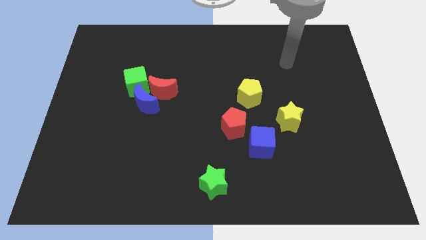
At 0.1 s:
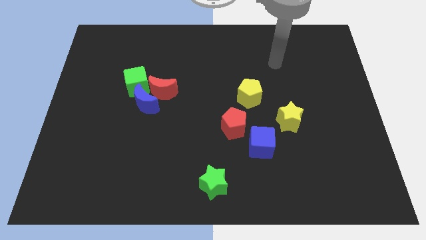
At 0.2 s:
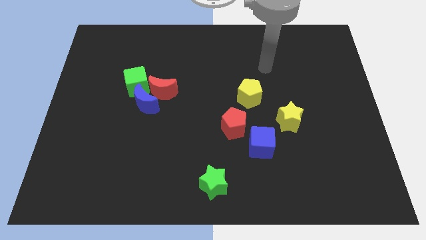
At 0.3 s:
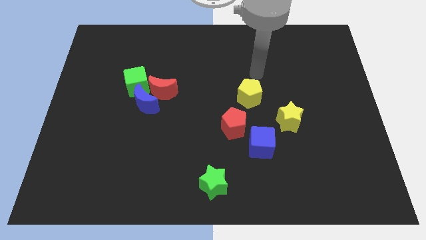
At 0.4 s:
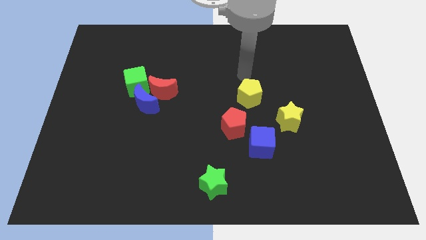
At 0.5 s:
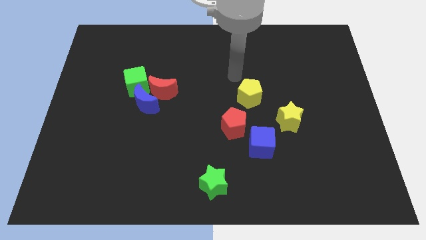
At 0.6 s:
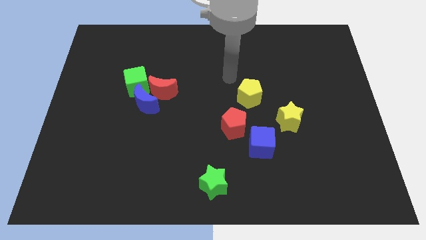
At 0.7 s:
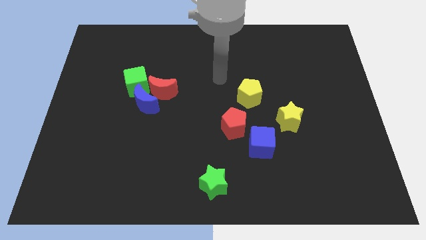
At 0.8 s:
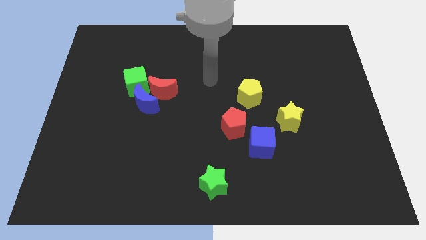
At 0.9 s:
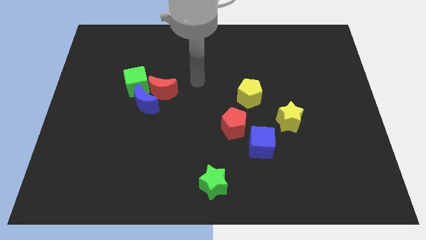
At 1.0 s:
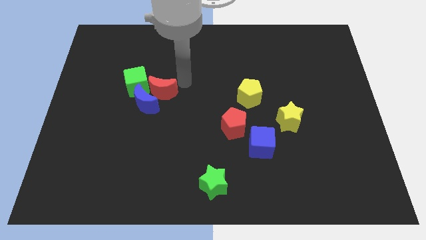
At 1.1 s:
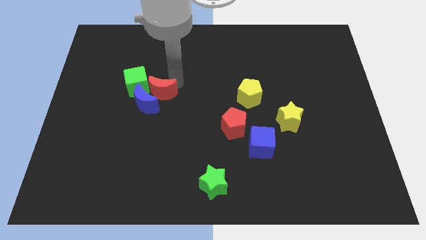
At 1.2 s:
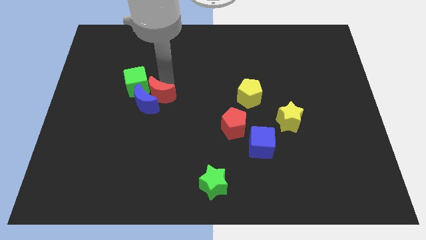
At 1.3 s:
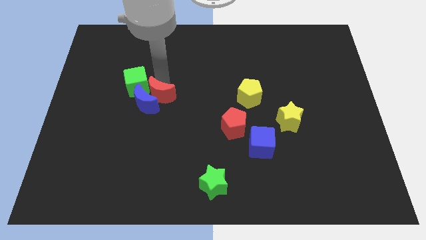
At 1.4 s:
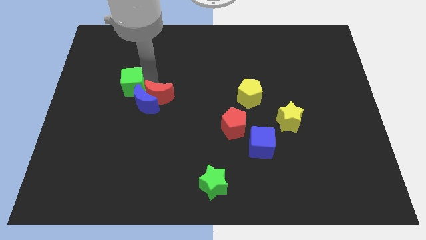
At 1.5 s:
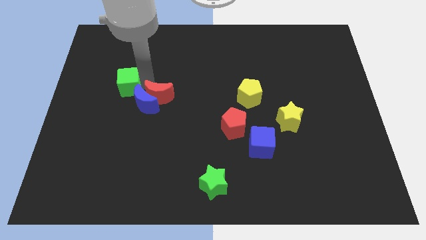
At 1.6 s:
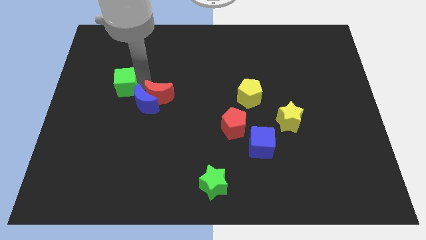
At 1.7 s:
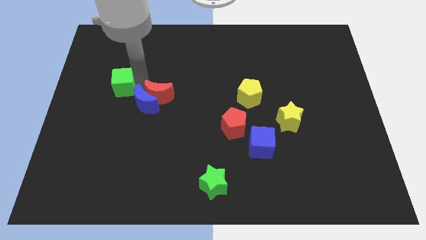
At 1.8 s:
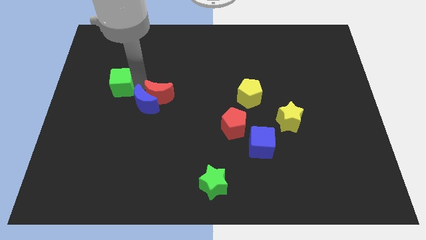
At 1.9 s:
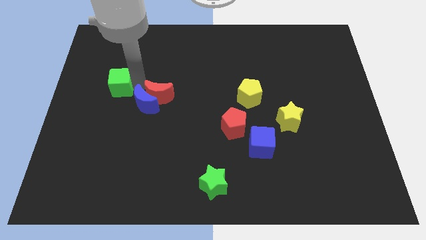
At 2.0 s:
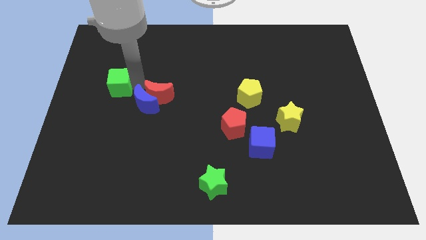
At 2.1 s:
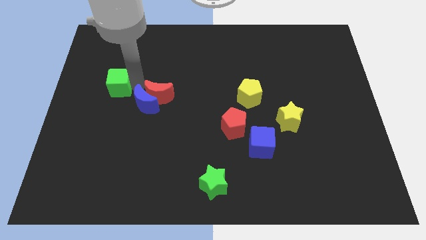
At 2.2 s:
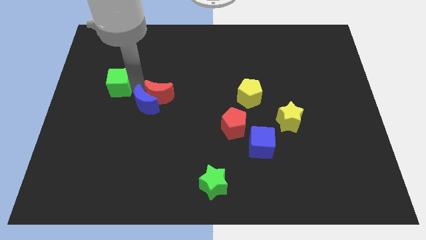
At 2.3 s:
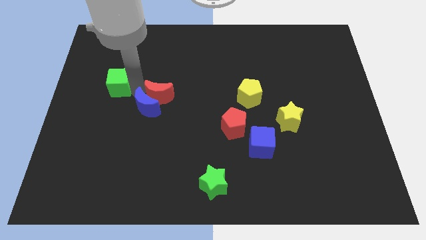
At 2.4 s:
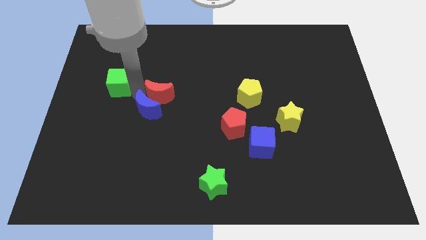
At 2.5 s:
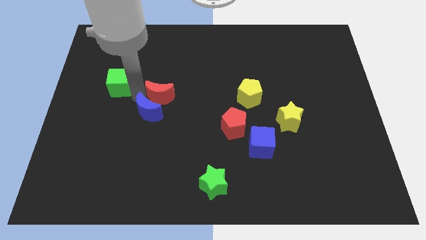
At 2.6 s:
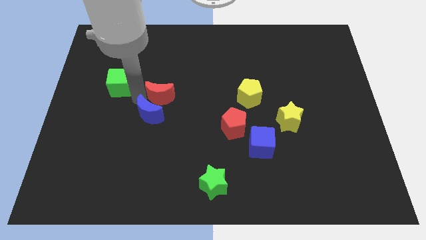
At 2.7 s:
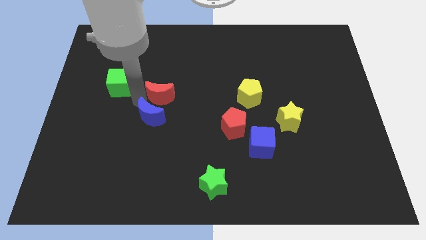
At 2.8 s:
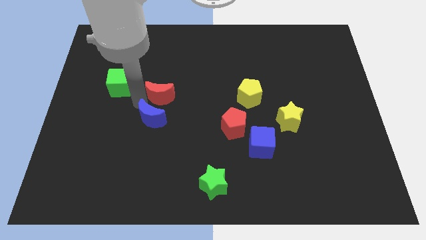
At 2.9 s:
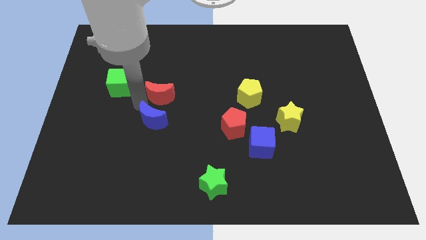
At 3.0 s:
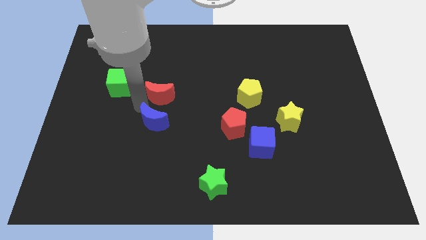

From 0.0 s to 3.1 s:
move the blue moon away from the red moon and green cube

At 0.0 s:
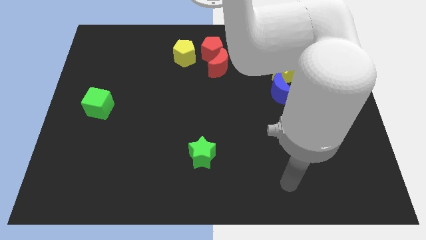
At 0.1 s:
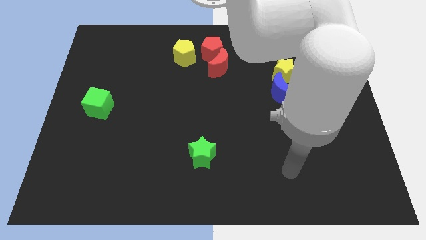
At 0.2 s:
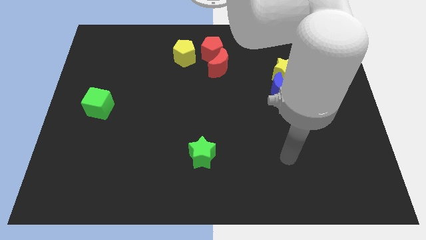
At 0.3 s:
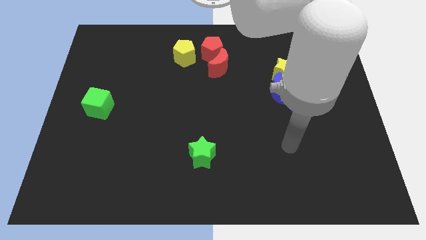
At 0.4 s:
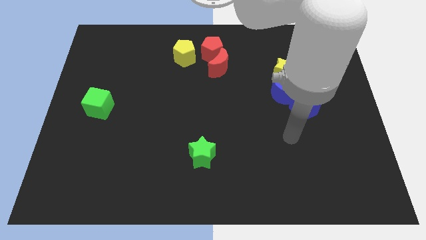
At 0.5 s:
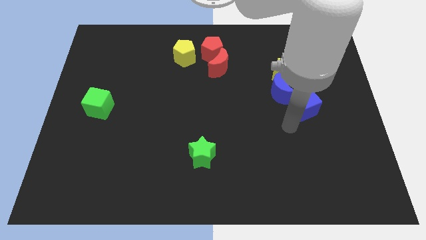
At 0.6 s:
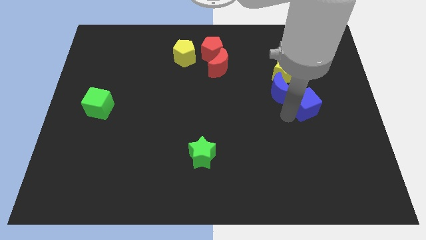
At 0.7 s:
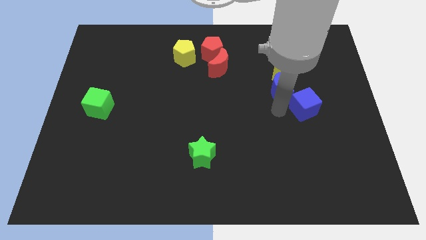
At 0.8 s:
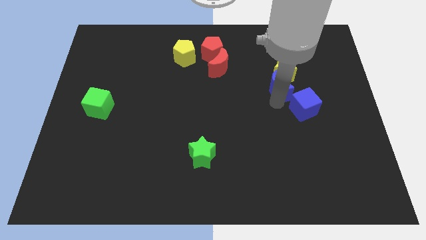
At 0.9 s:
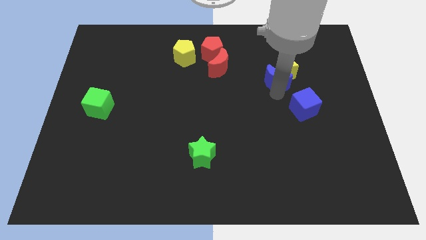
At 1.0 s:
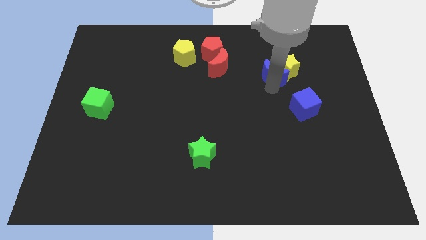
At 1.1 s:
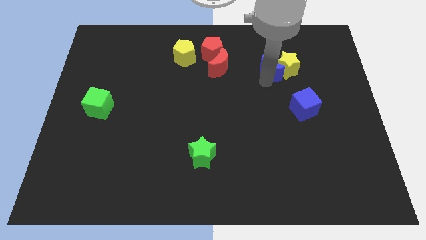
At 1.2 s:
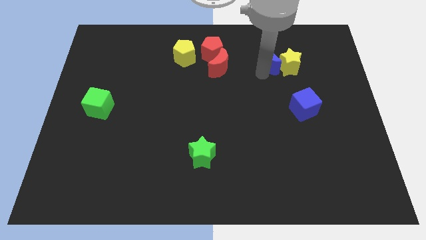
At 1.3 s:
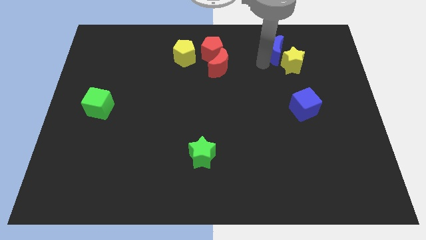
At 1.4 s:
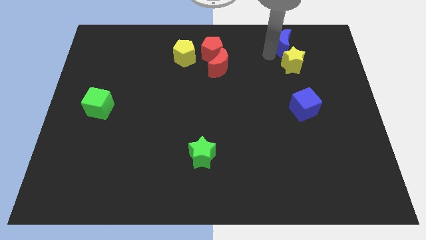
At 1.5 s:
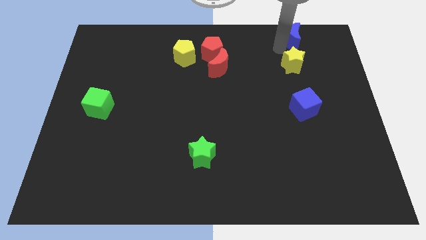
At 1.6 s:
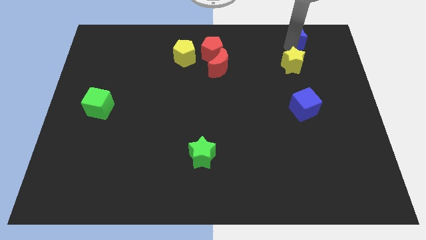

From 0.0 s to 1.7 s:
move the yellow star away from the blue moon

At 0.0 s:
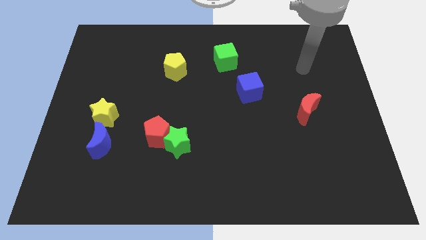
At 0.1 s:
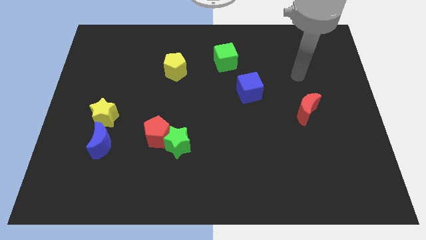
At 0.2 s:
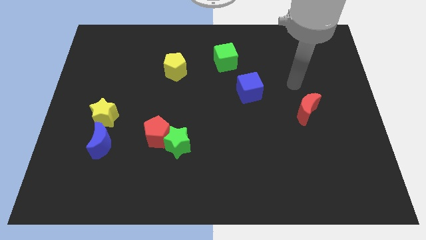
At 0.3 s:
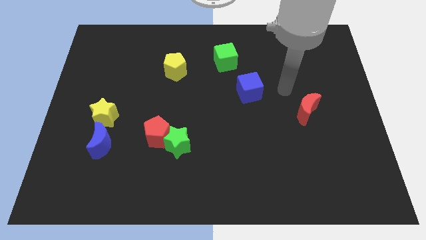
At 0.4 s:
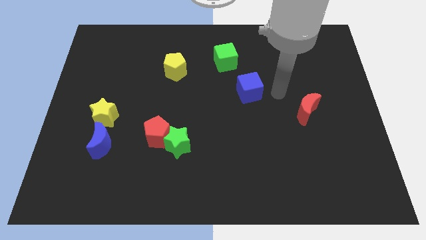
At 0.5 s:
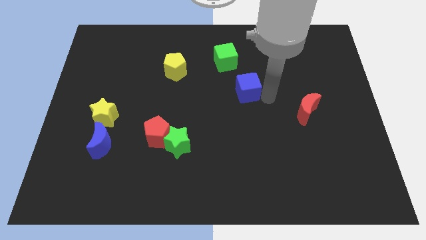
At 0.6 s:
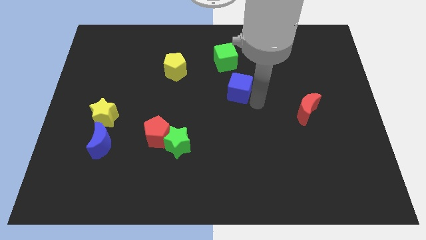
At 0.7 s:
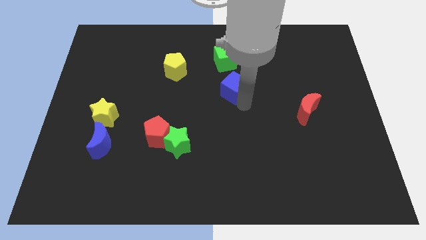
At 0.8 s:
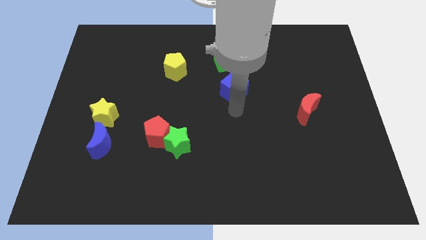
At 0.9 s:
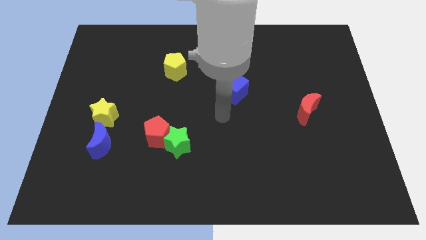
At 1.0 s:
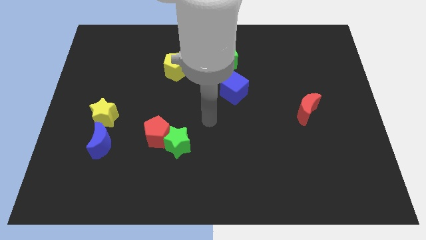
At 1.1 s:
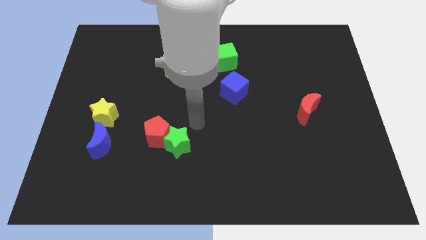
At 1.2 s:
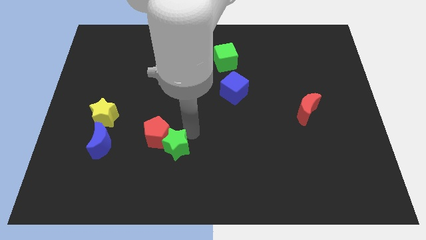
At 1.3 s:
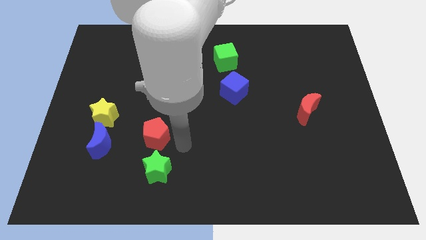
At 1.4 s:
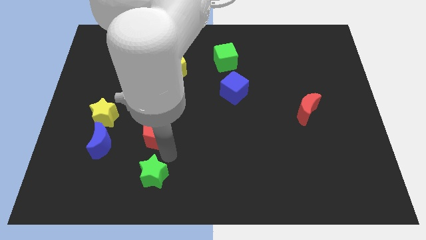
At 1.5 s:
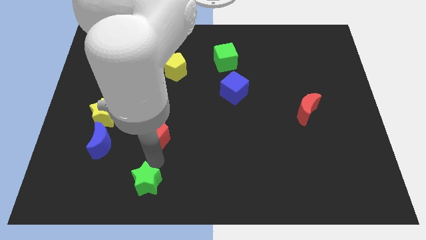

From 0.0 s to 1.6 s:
move the red pentagon away from the green star

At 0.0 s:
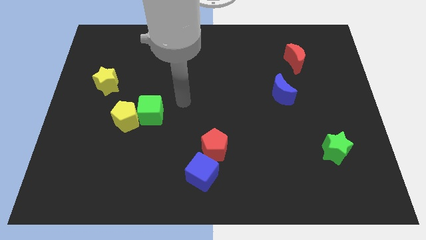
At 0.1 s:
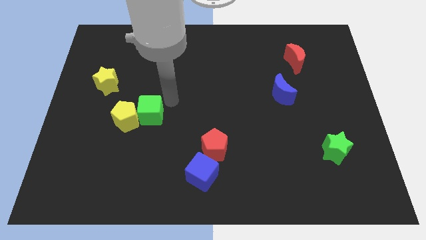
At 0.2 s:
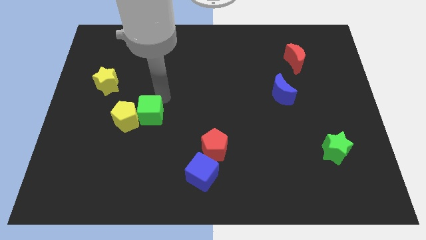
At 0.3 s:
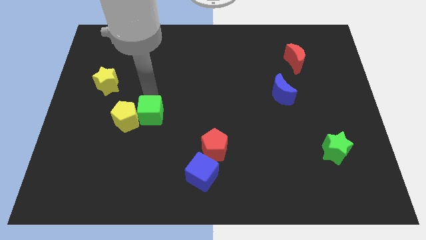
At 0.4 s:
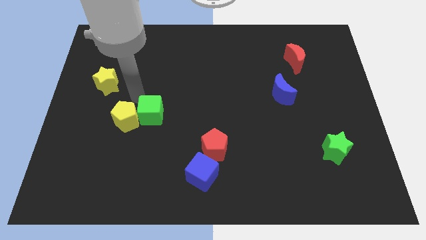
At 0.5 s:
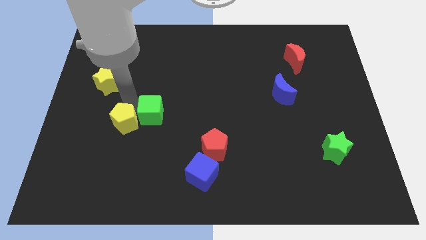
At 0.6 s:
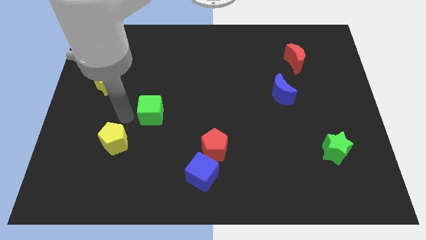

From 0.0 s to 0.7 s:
move the green cube away from the yellow pentagon

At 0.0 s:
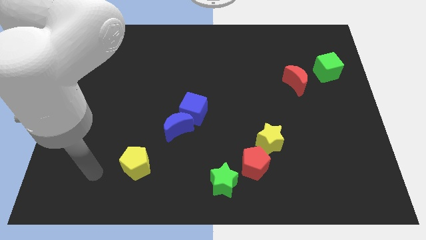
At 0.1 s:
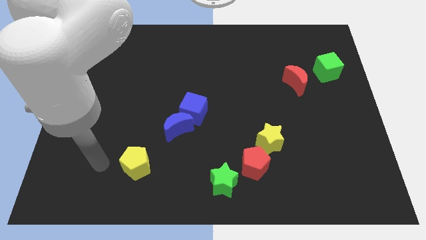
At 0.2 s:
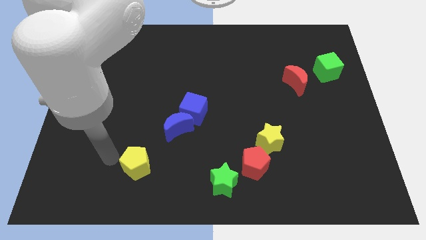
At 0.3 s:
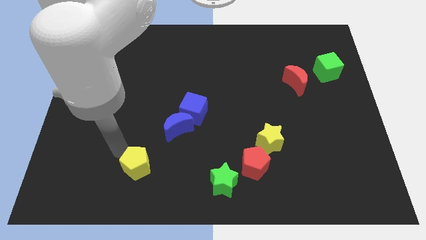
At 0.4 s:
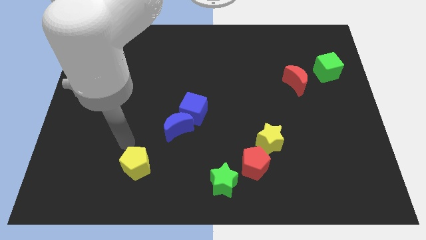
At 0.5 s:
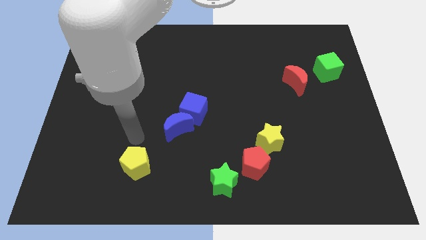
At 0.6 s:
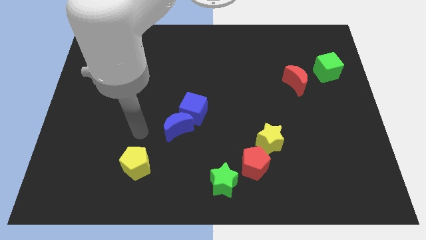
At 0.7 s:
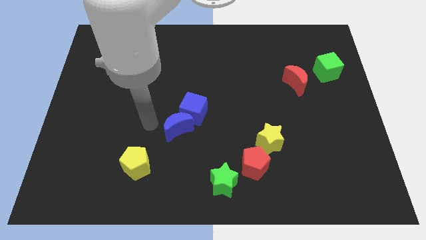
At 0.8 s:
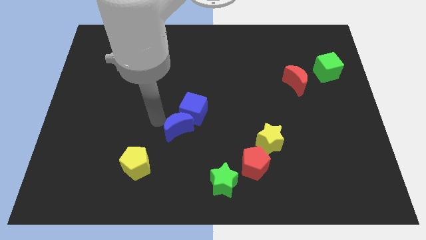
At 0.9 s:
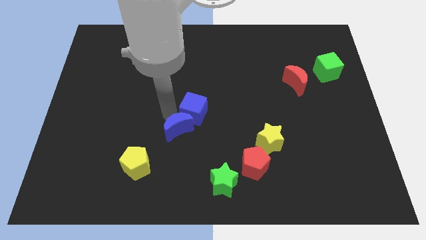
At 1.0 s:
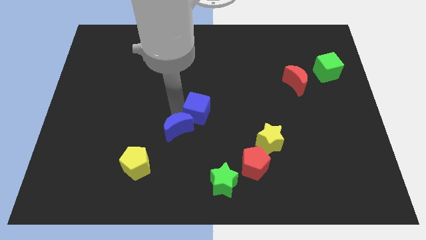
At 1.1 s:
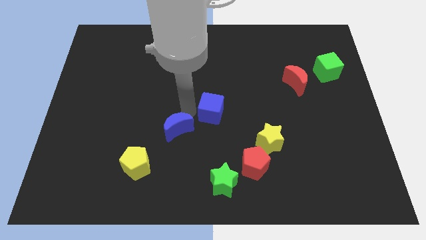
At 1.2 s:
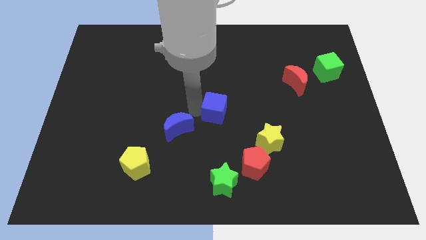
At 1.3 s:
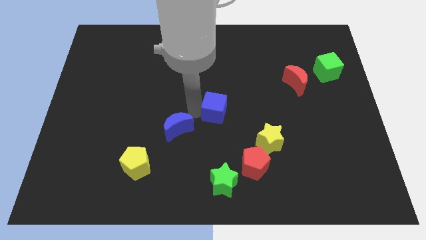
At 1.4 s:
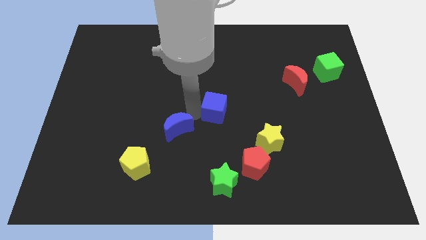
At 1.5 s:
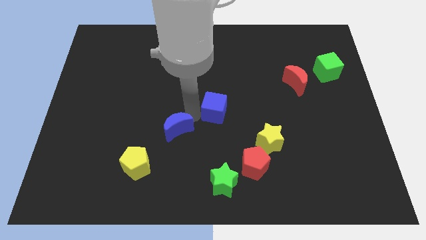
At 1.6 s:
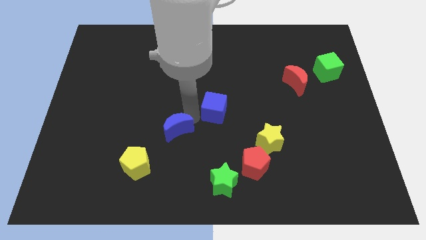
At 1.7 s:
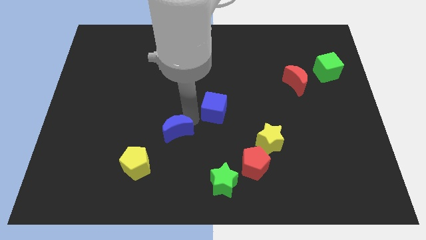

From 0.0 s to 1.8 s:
pull the blue moon apart from the blue cube

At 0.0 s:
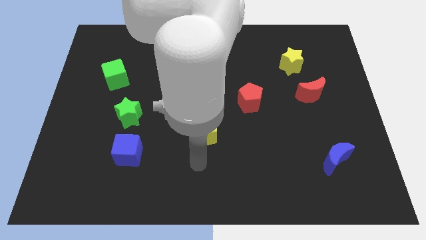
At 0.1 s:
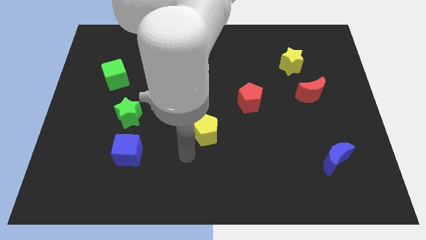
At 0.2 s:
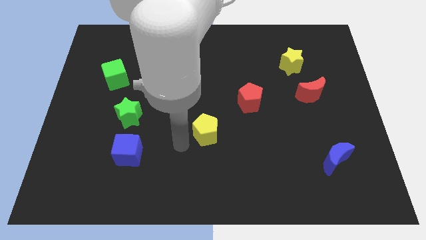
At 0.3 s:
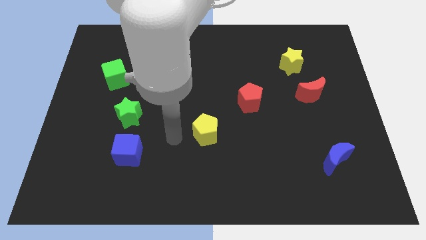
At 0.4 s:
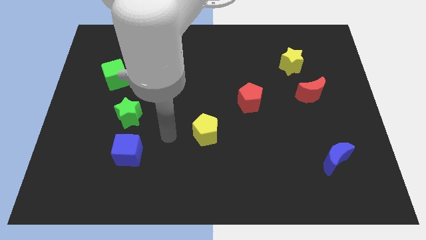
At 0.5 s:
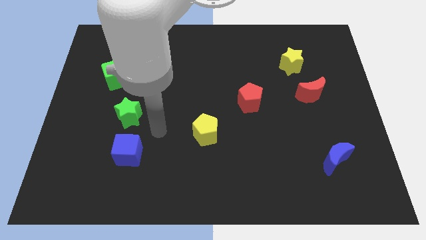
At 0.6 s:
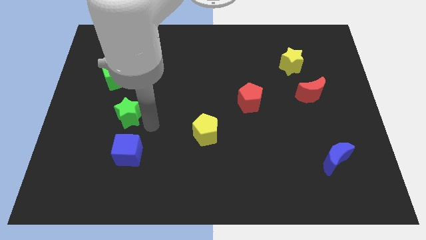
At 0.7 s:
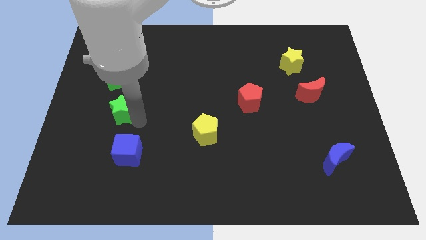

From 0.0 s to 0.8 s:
move the blue cube away from the green star
